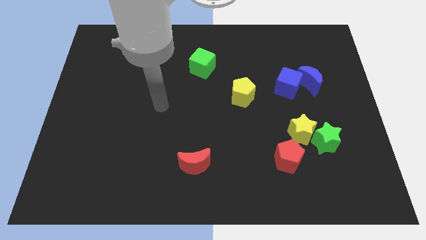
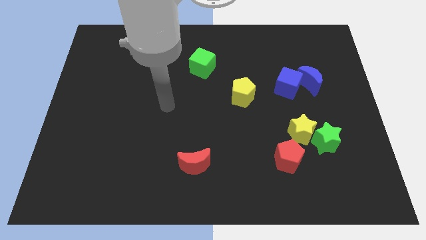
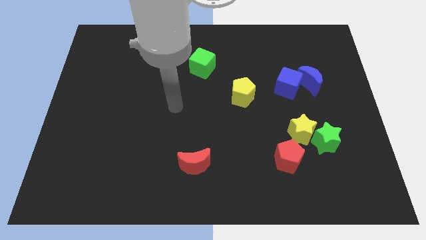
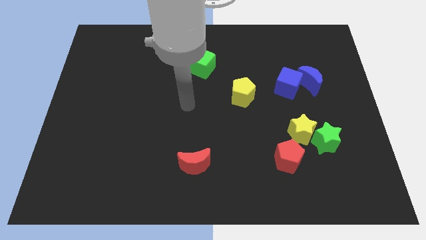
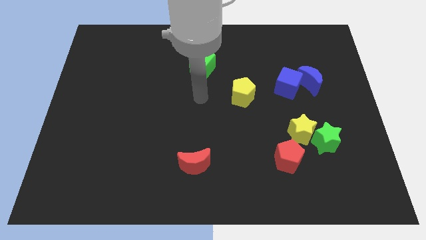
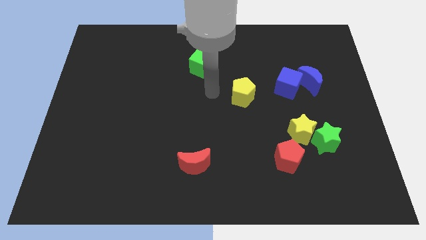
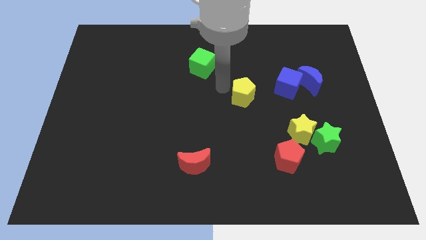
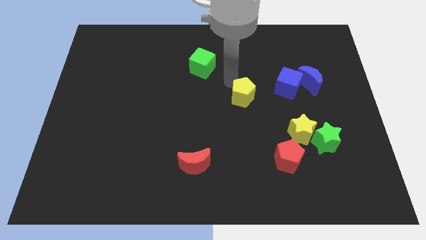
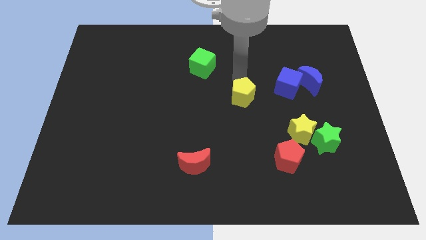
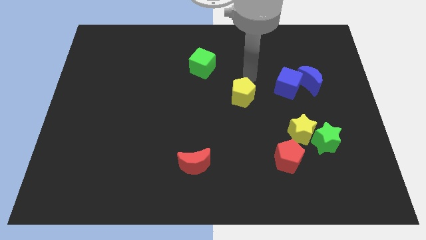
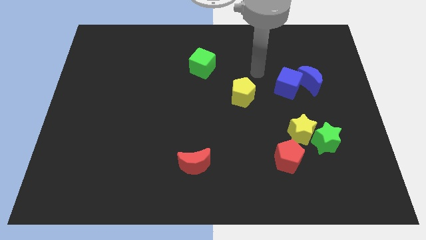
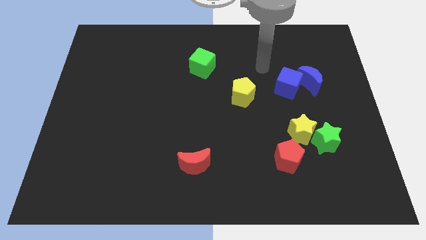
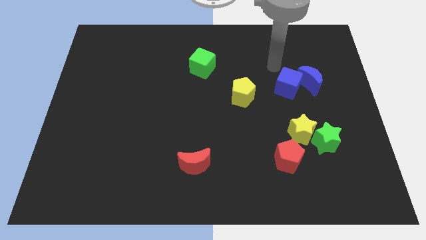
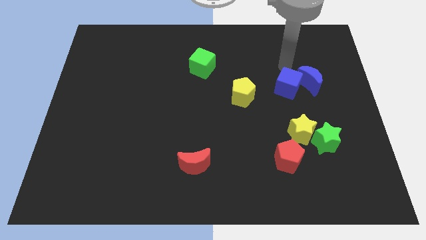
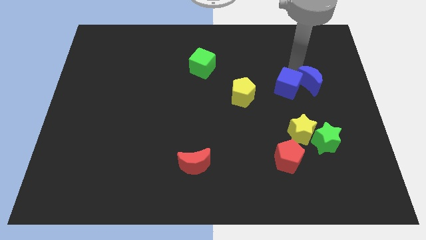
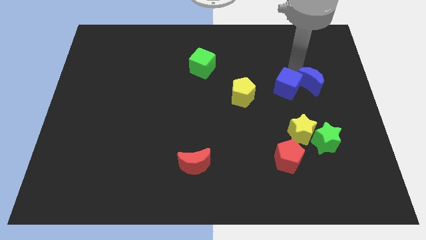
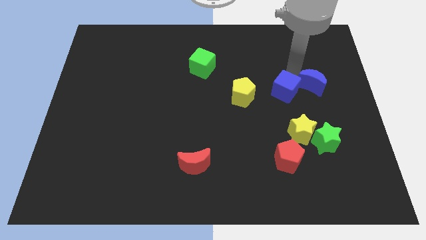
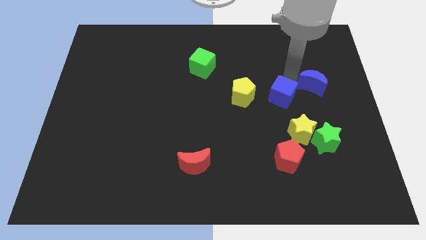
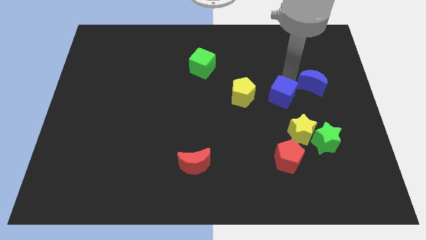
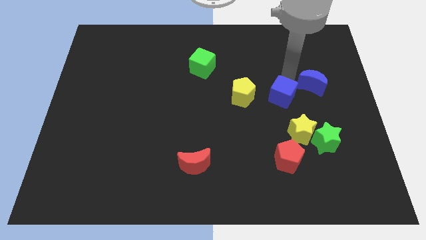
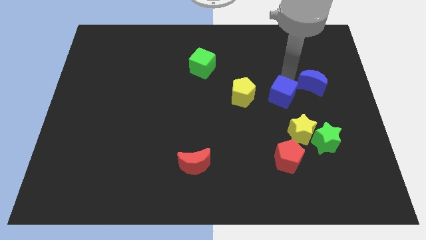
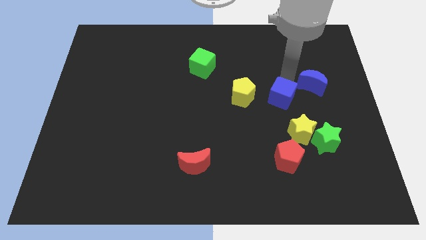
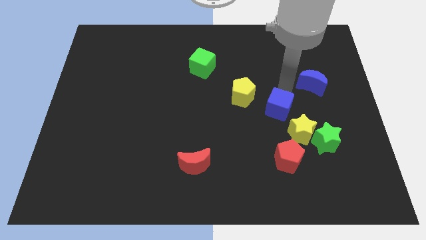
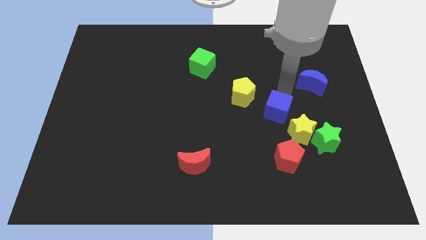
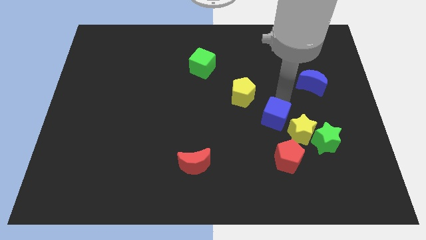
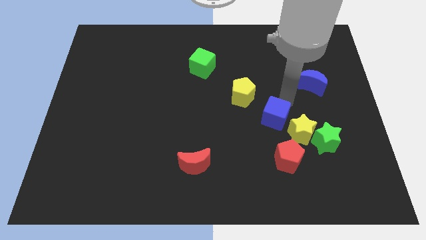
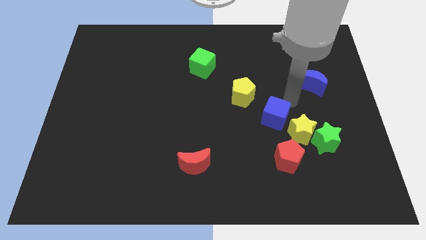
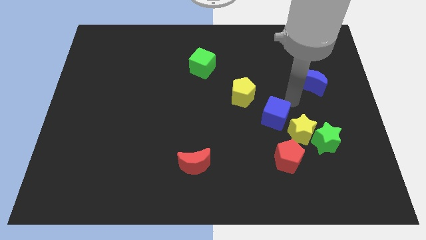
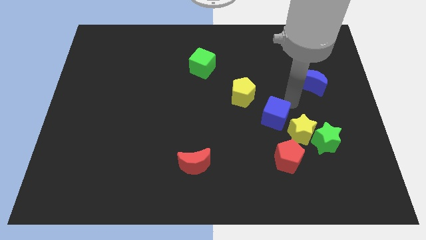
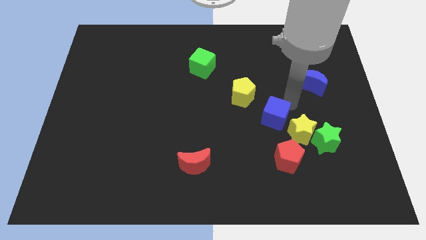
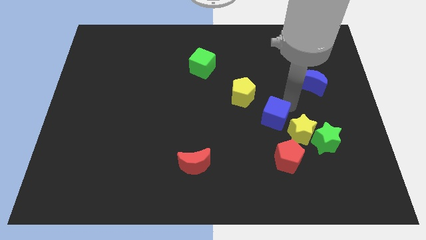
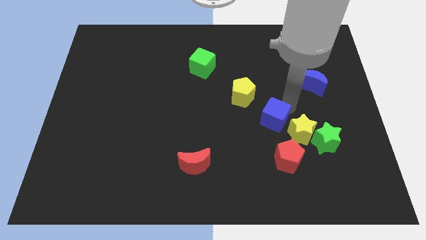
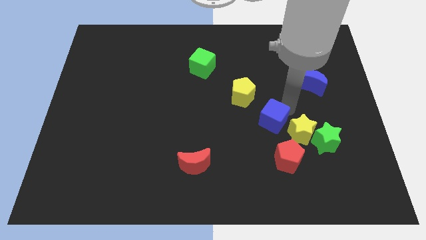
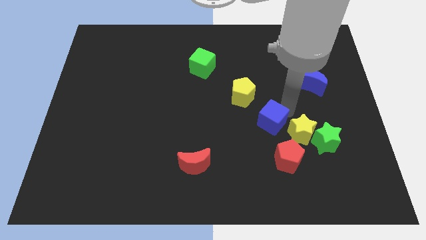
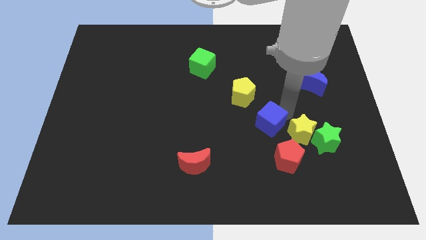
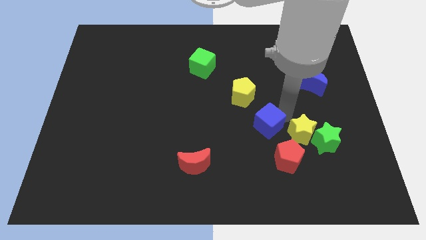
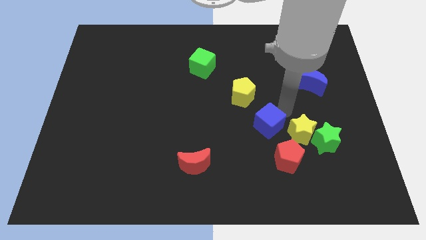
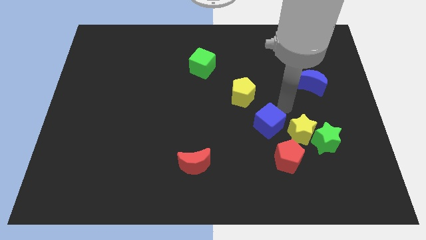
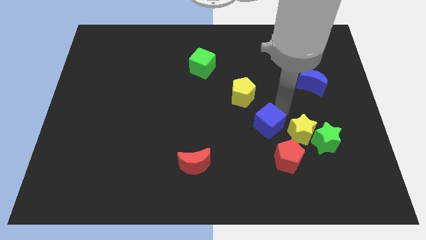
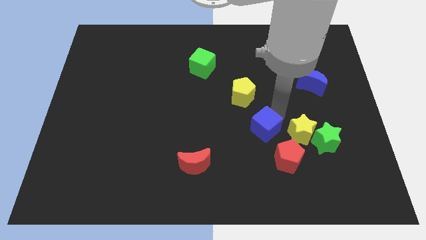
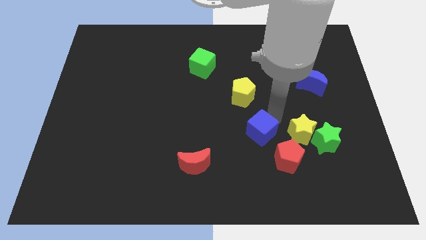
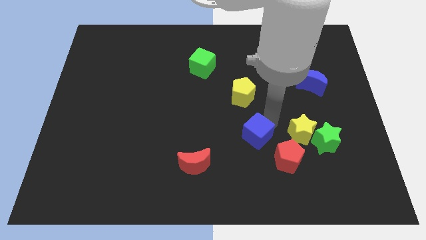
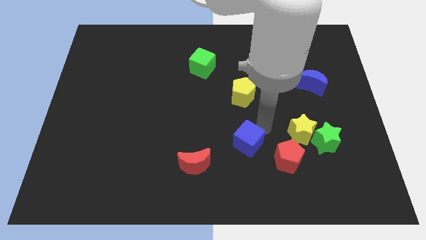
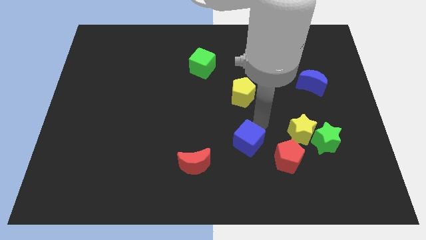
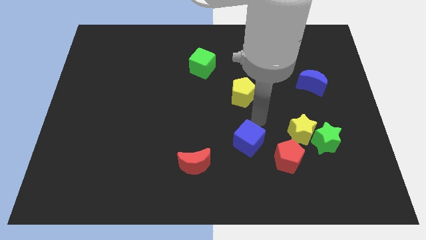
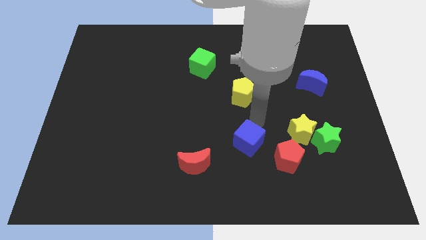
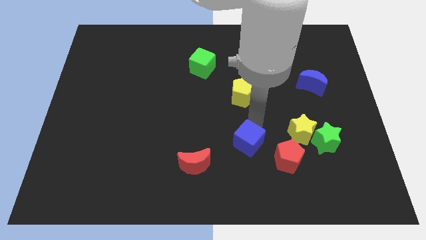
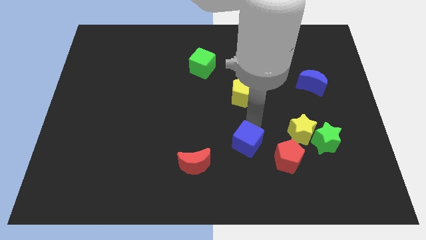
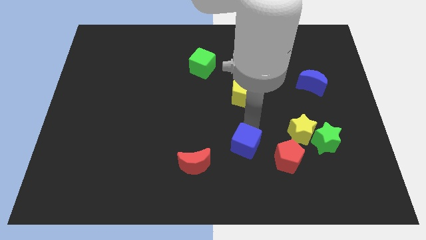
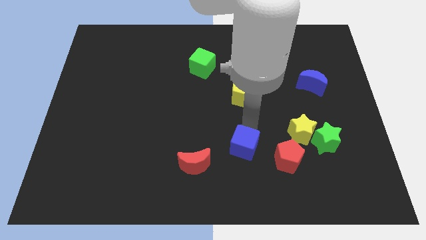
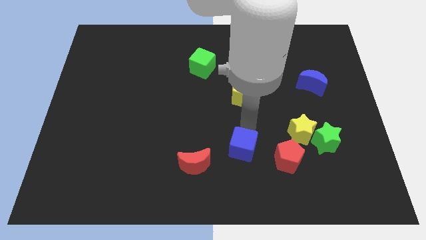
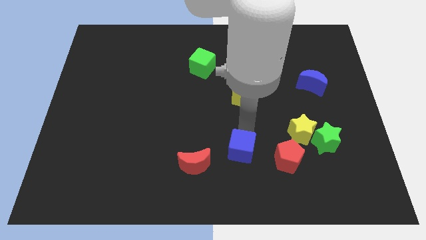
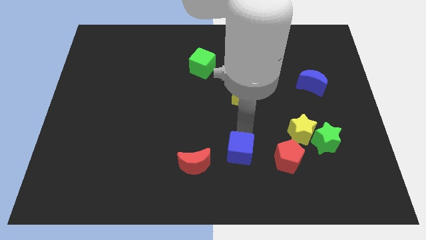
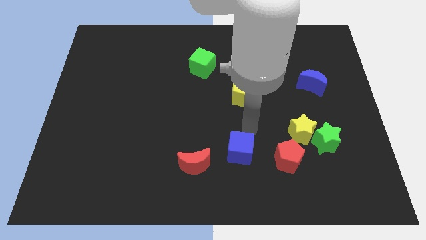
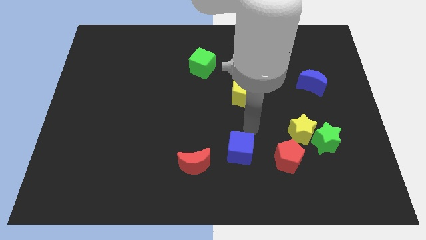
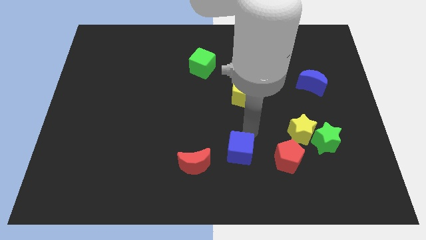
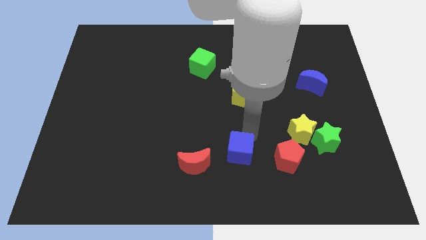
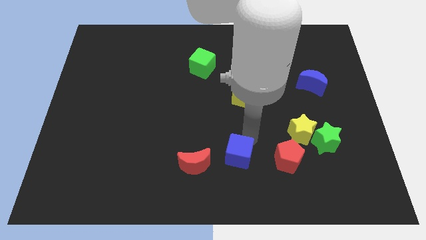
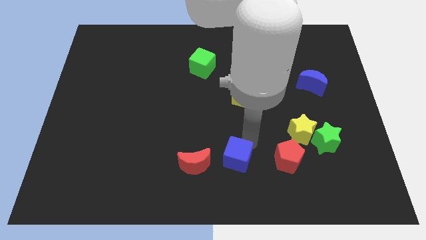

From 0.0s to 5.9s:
push the blue cube to the bottom
